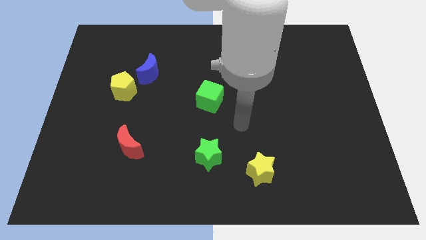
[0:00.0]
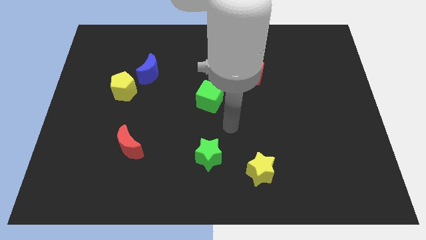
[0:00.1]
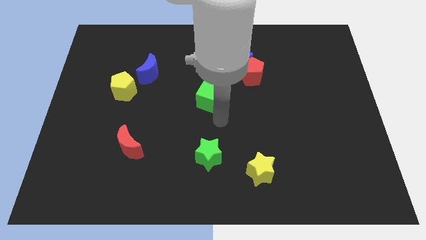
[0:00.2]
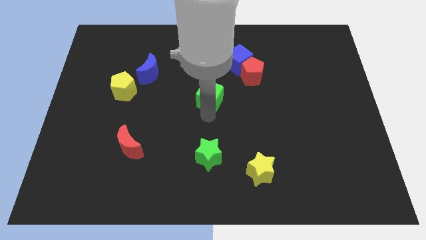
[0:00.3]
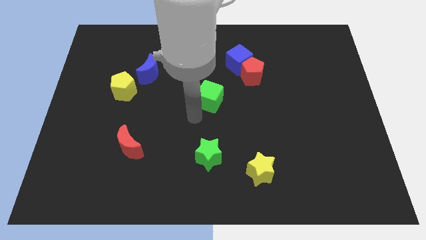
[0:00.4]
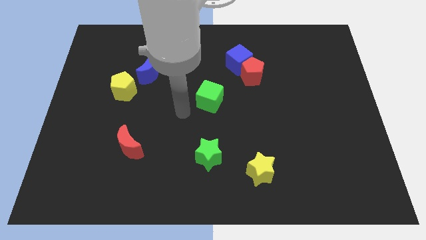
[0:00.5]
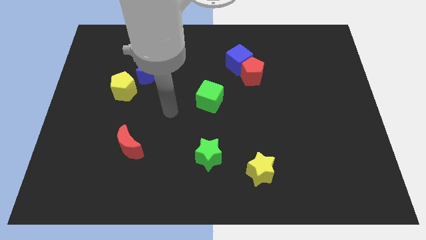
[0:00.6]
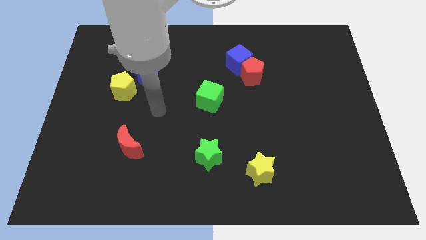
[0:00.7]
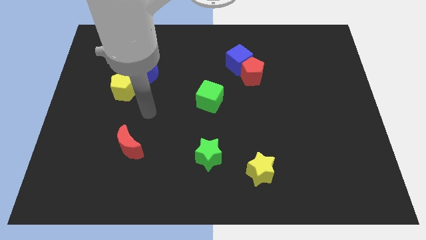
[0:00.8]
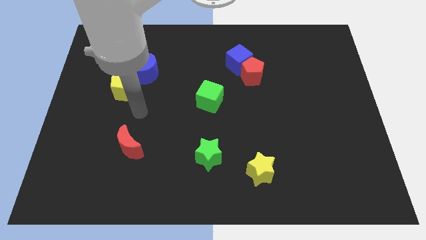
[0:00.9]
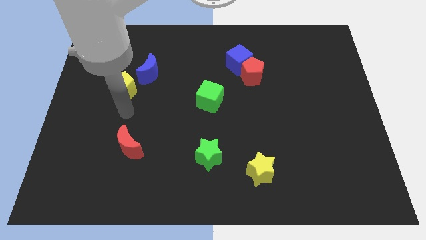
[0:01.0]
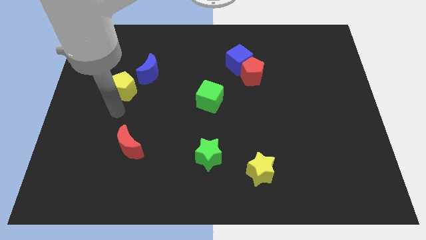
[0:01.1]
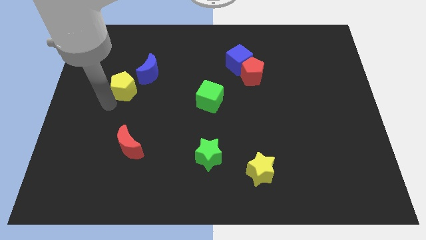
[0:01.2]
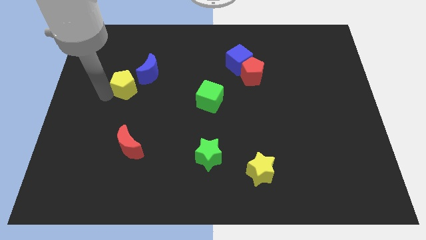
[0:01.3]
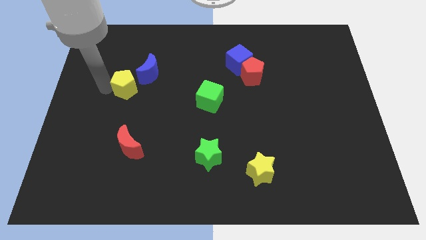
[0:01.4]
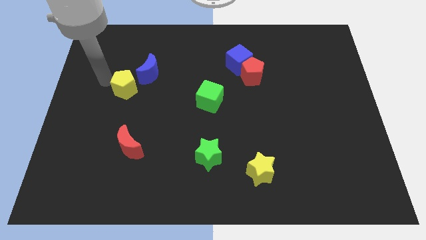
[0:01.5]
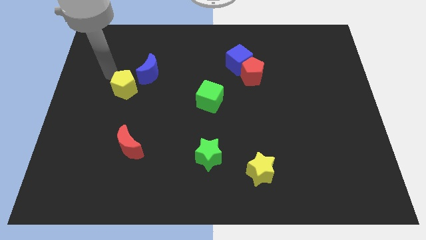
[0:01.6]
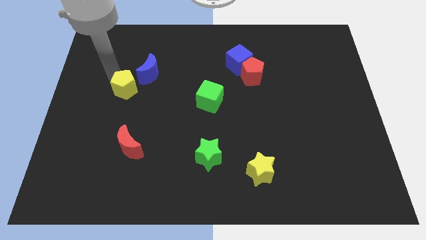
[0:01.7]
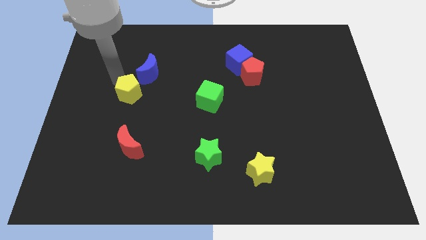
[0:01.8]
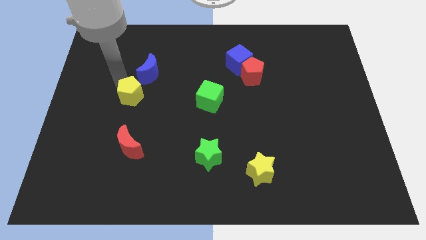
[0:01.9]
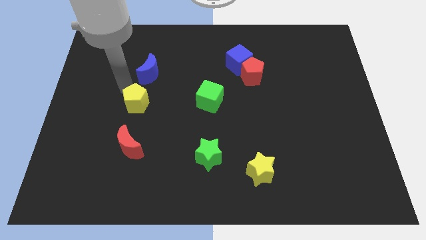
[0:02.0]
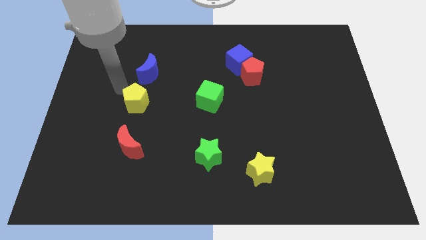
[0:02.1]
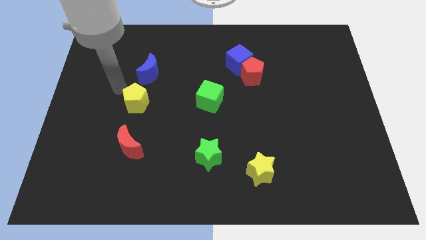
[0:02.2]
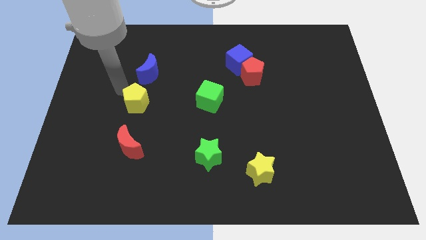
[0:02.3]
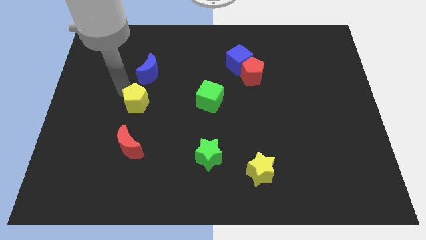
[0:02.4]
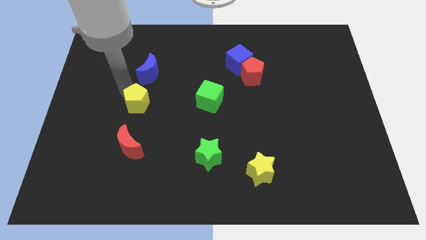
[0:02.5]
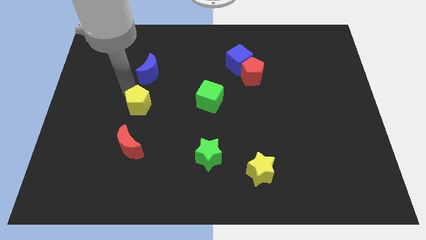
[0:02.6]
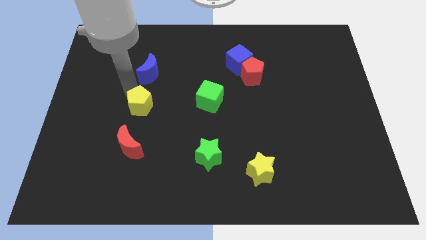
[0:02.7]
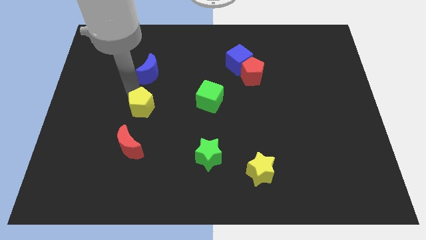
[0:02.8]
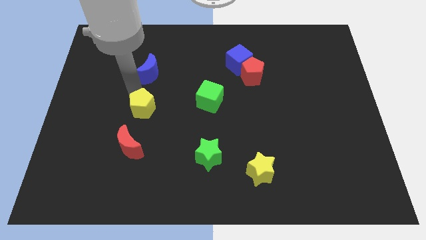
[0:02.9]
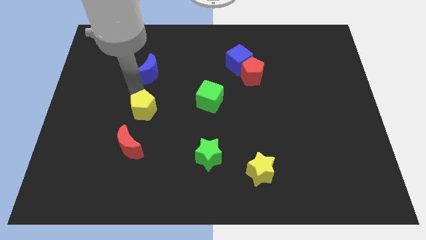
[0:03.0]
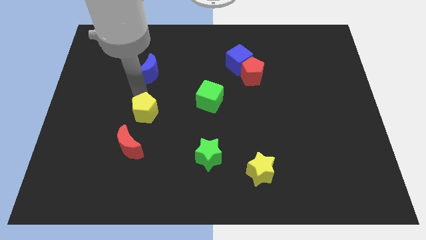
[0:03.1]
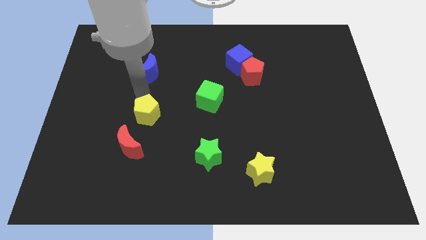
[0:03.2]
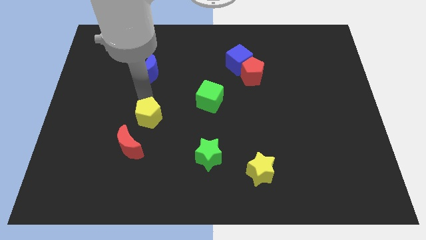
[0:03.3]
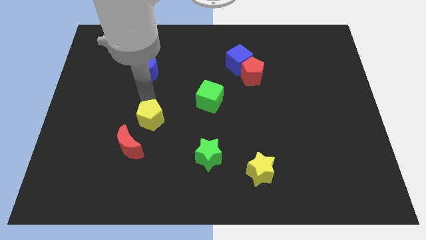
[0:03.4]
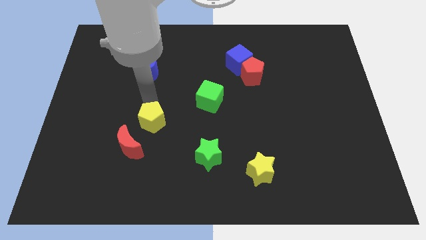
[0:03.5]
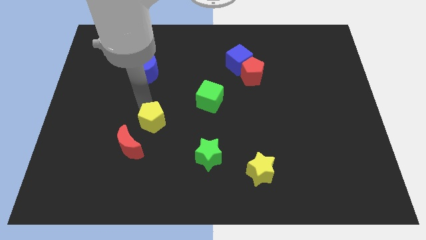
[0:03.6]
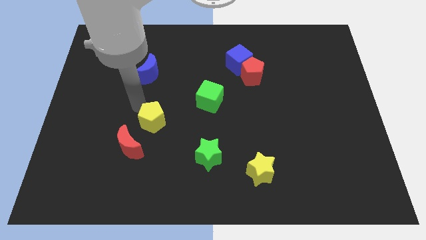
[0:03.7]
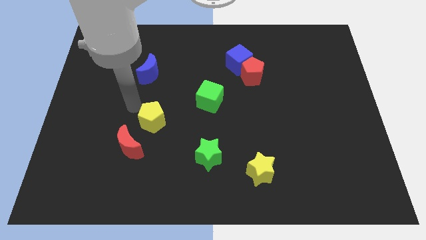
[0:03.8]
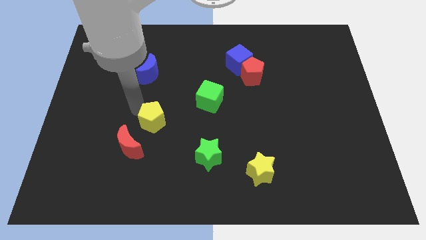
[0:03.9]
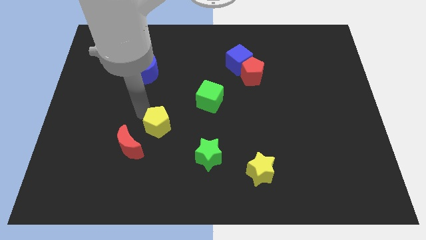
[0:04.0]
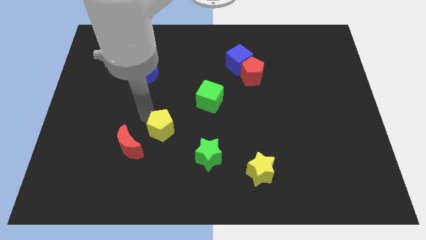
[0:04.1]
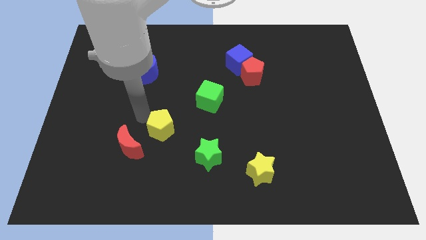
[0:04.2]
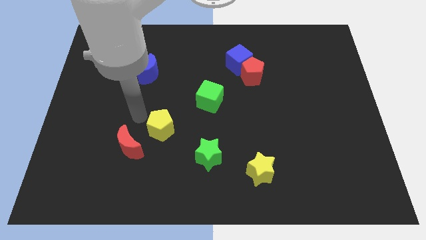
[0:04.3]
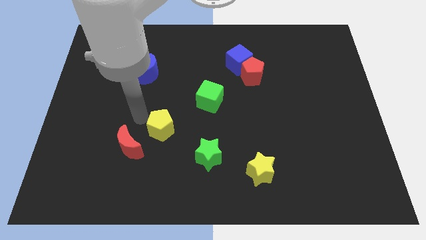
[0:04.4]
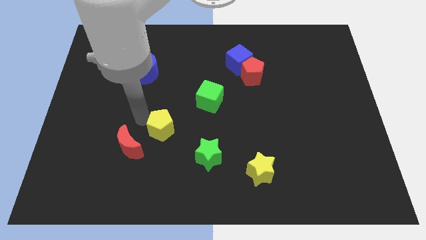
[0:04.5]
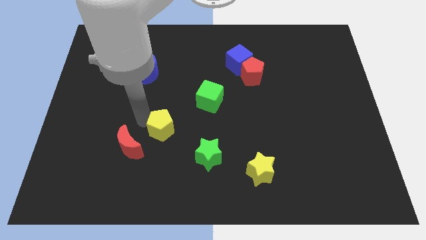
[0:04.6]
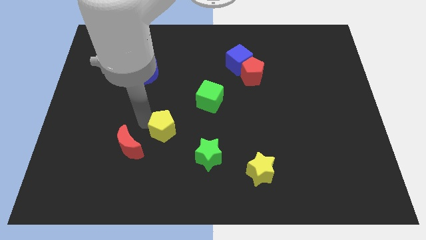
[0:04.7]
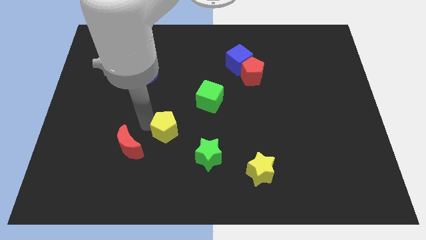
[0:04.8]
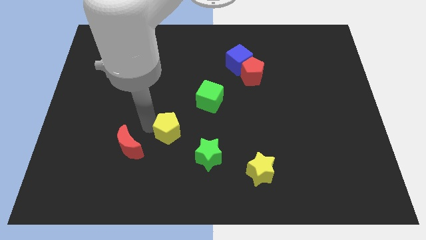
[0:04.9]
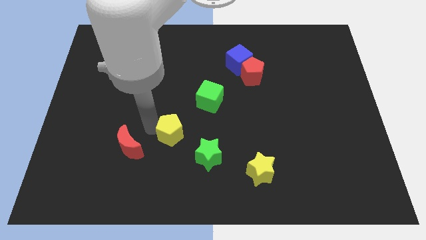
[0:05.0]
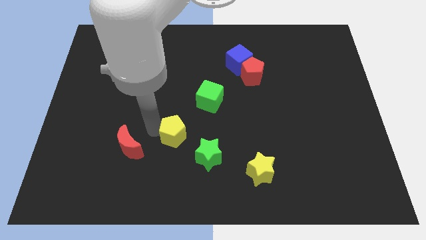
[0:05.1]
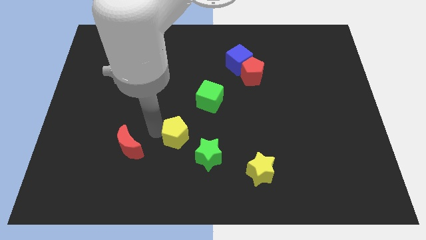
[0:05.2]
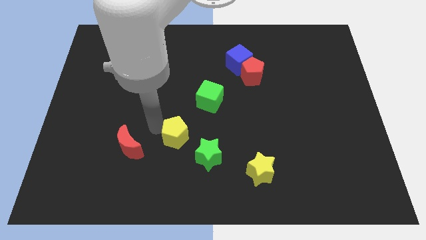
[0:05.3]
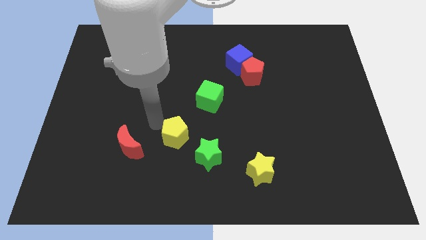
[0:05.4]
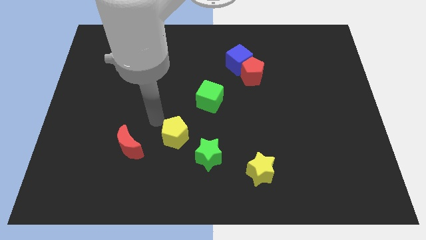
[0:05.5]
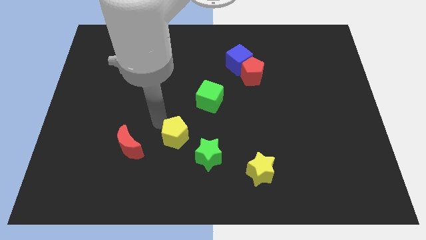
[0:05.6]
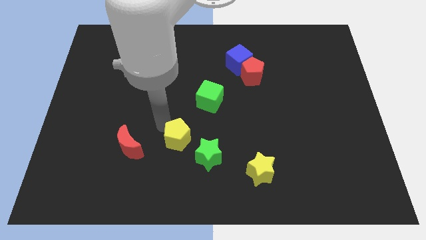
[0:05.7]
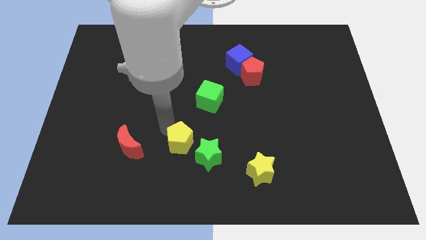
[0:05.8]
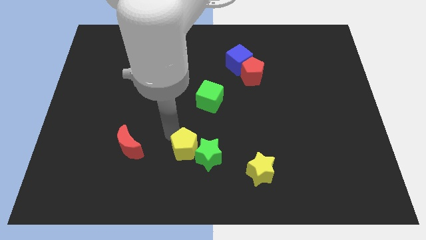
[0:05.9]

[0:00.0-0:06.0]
slide the yellow pentagon towards the green star

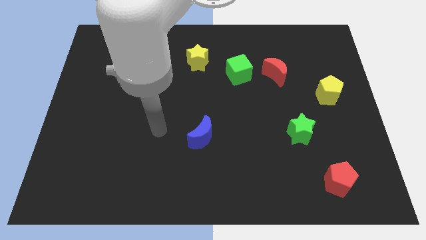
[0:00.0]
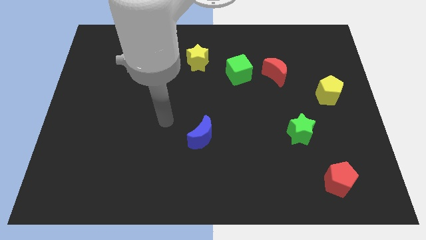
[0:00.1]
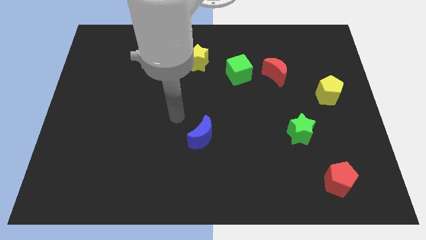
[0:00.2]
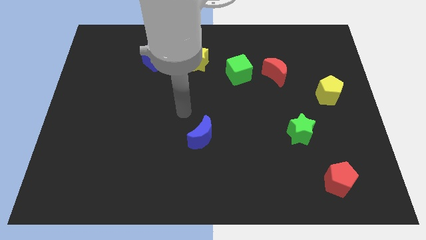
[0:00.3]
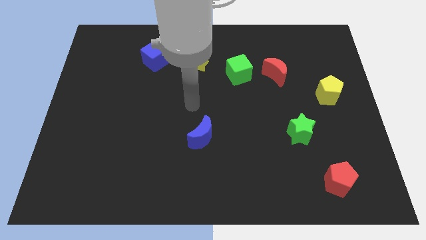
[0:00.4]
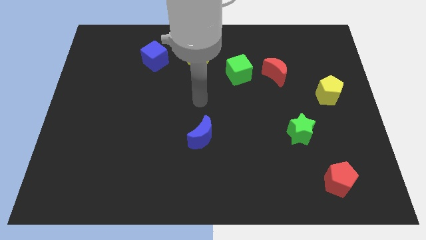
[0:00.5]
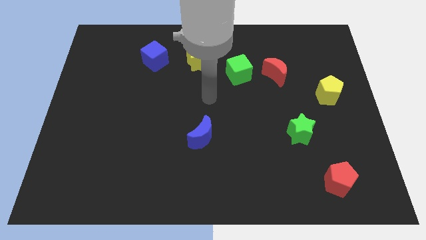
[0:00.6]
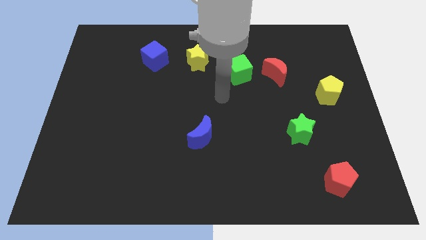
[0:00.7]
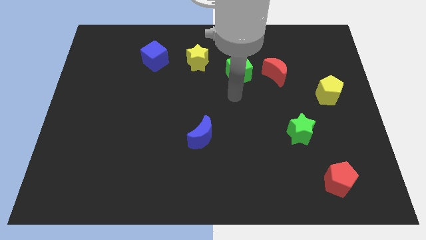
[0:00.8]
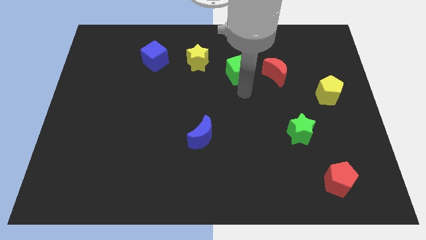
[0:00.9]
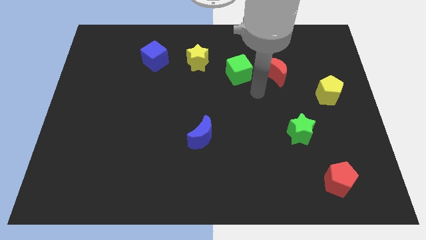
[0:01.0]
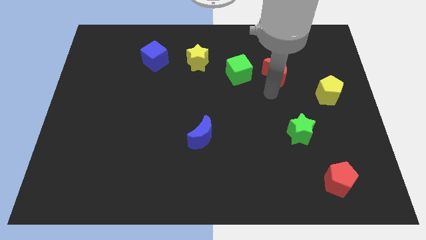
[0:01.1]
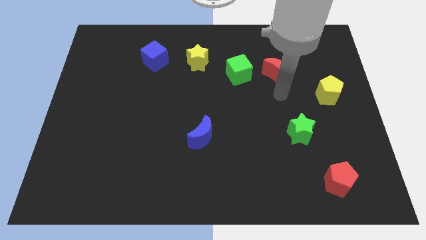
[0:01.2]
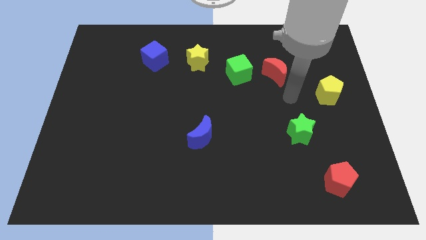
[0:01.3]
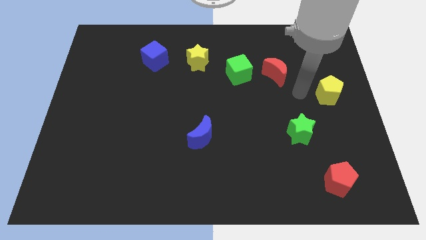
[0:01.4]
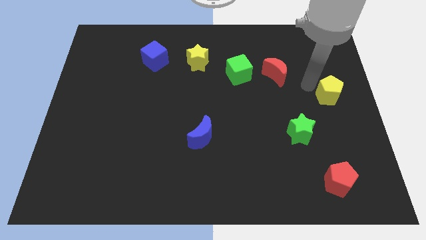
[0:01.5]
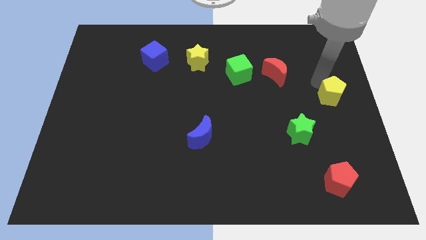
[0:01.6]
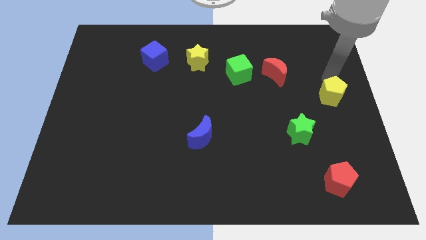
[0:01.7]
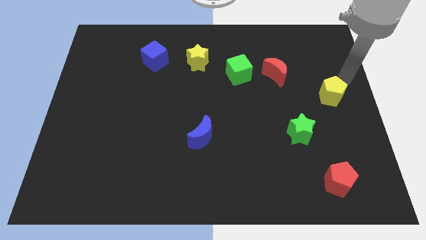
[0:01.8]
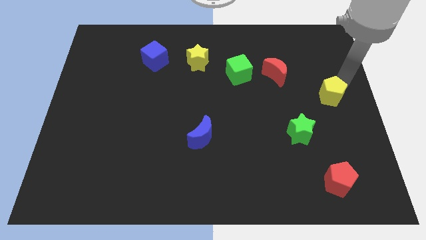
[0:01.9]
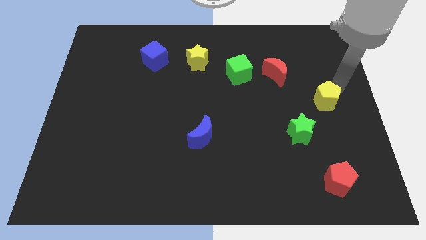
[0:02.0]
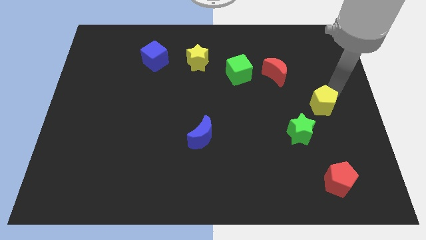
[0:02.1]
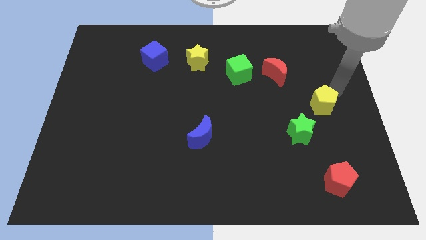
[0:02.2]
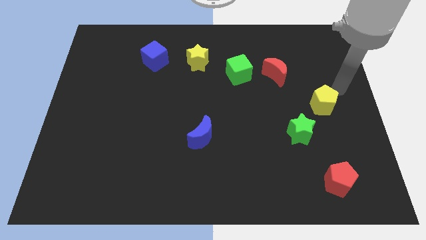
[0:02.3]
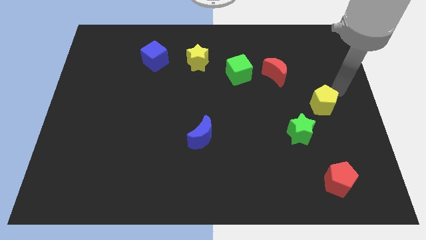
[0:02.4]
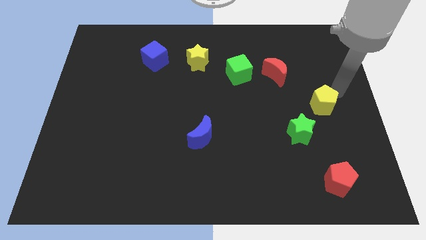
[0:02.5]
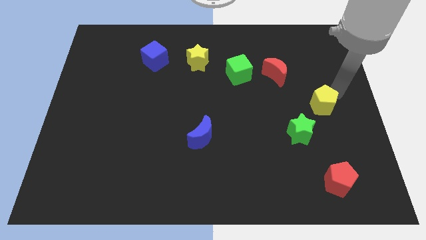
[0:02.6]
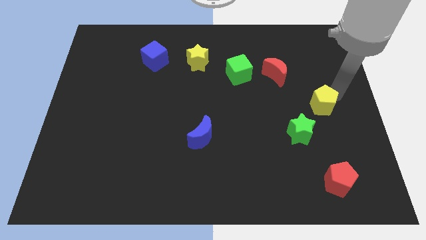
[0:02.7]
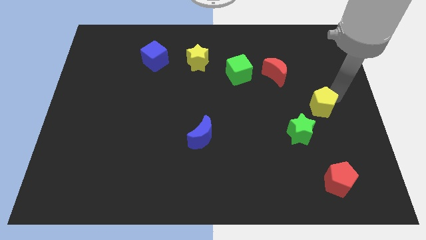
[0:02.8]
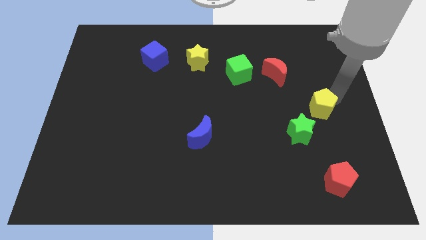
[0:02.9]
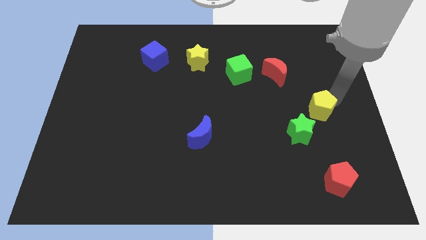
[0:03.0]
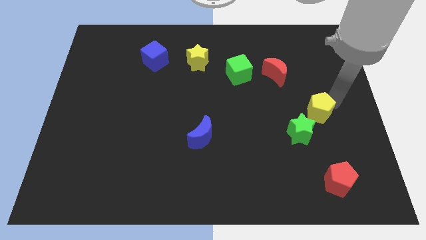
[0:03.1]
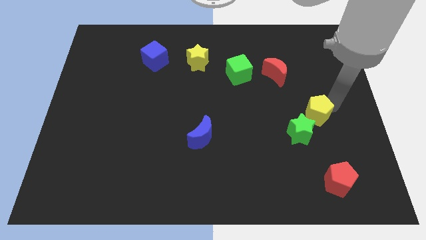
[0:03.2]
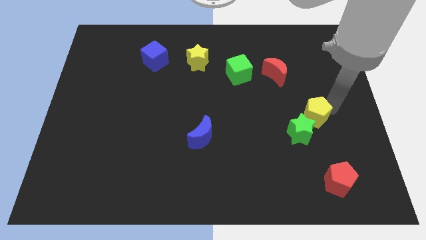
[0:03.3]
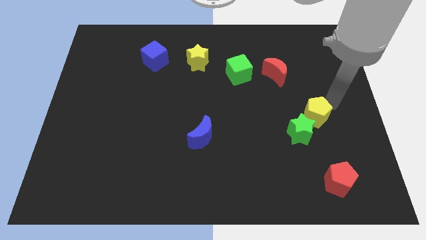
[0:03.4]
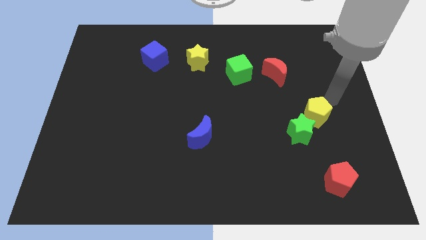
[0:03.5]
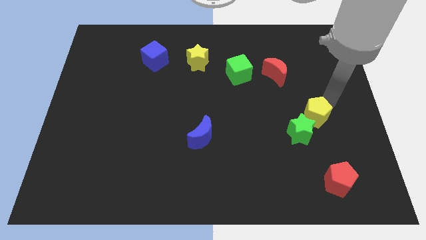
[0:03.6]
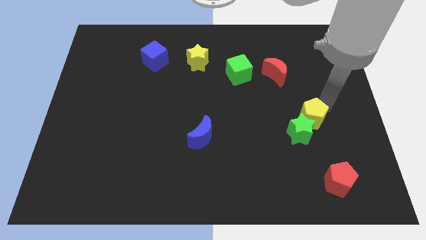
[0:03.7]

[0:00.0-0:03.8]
slide the yellow pentagon next to the green star
